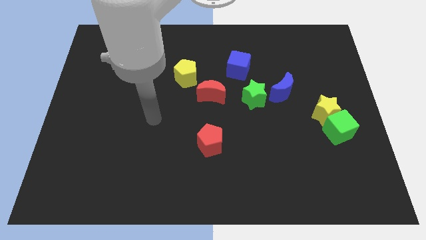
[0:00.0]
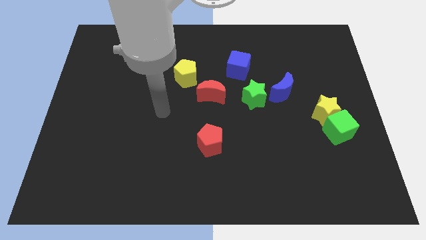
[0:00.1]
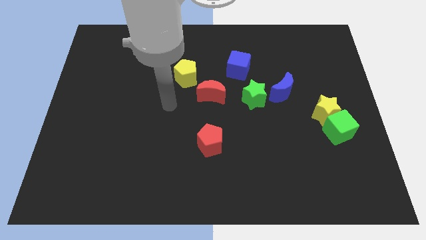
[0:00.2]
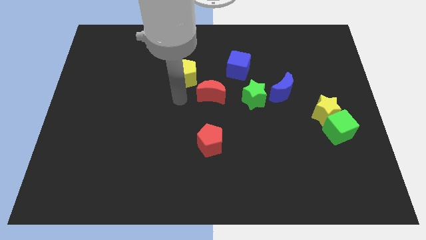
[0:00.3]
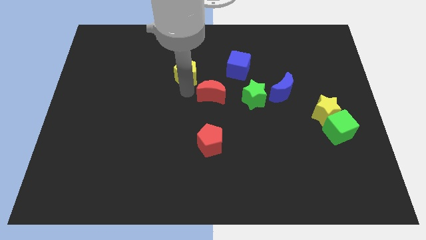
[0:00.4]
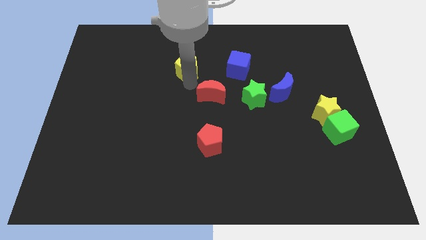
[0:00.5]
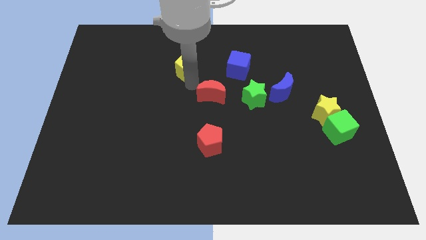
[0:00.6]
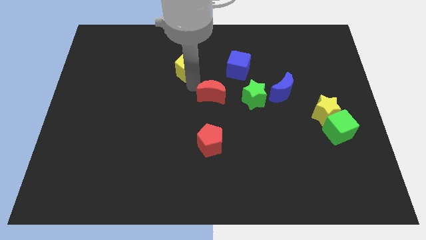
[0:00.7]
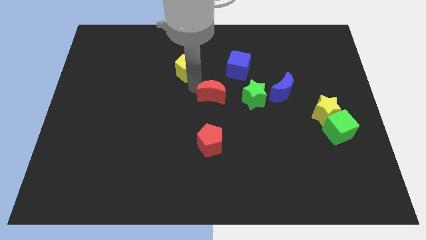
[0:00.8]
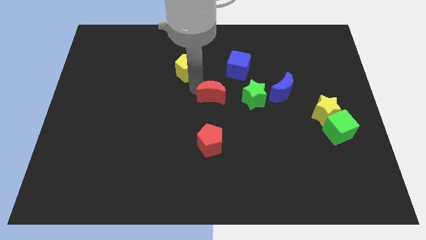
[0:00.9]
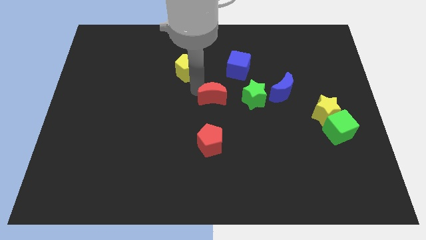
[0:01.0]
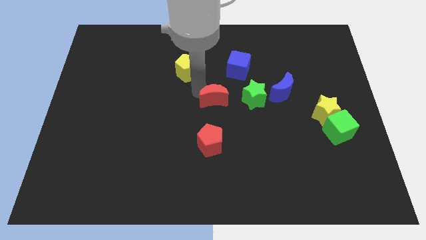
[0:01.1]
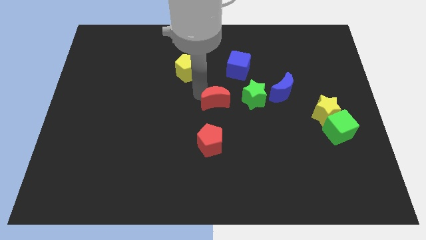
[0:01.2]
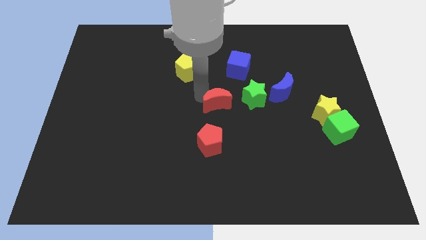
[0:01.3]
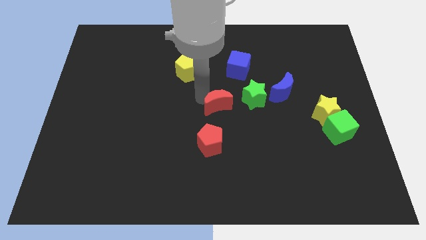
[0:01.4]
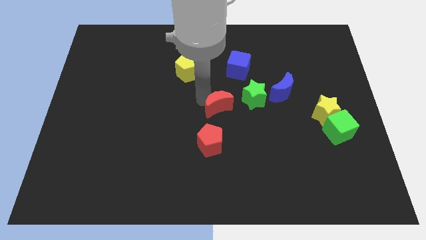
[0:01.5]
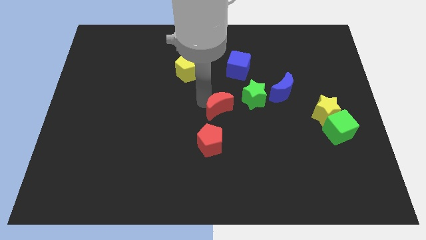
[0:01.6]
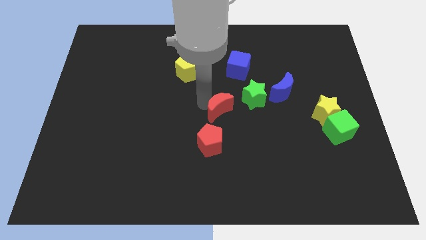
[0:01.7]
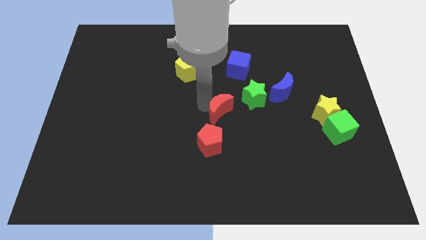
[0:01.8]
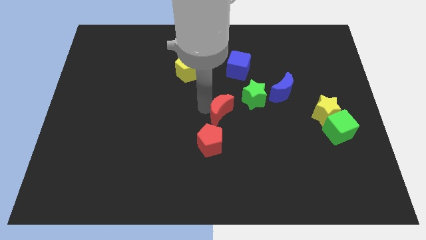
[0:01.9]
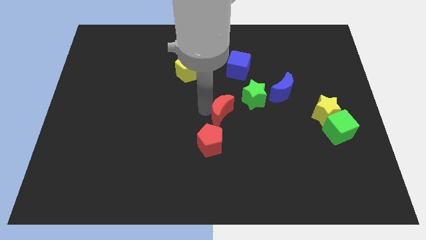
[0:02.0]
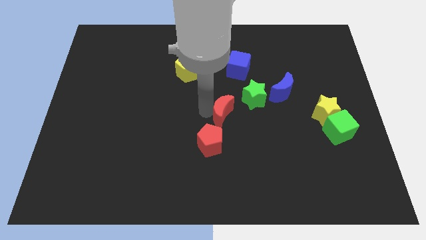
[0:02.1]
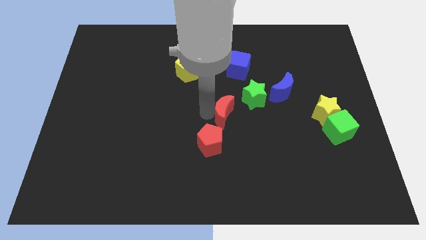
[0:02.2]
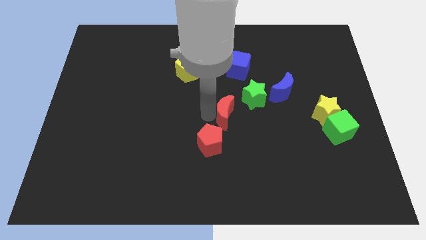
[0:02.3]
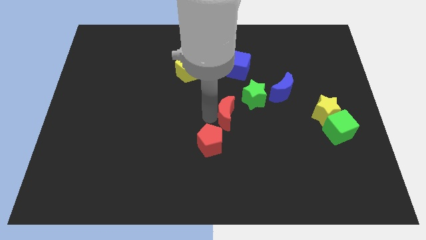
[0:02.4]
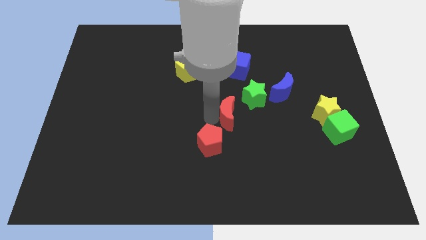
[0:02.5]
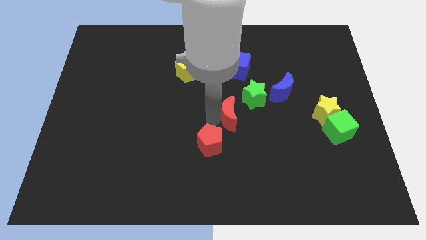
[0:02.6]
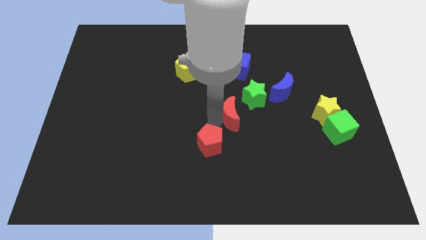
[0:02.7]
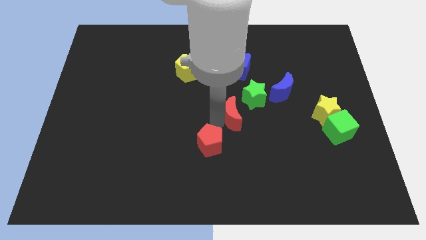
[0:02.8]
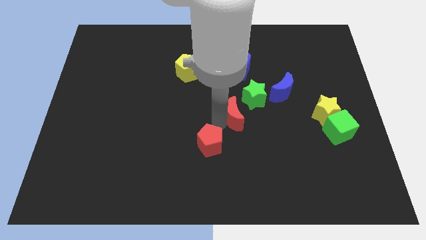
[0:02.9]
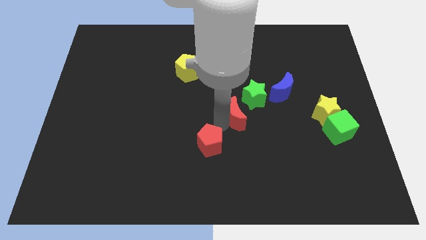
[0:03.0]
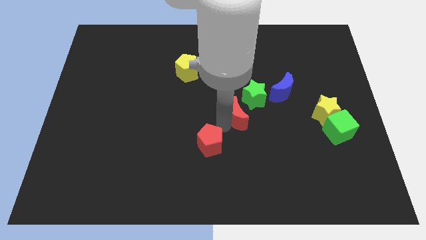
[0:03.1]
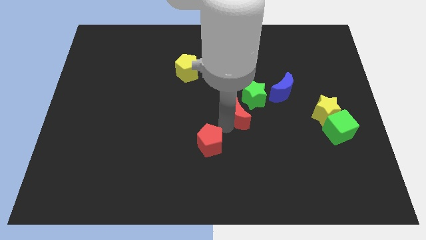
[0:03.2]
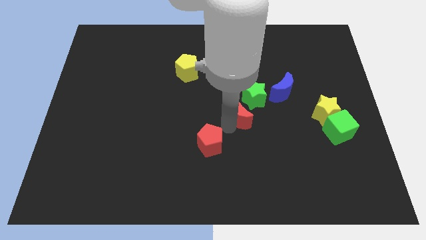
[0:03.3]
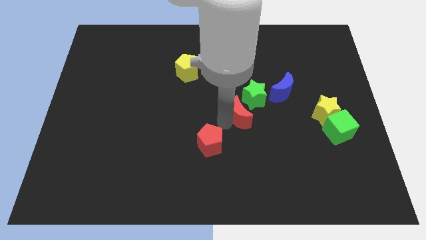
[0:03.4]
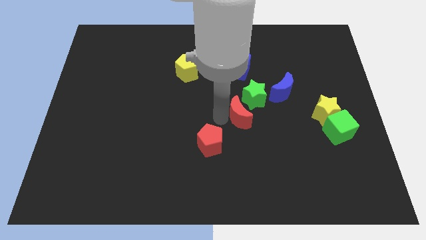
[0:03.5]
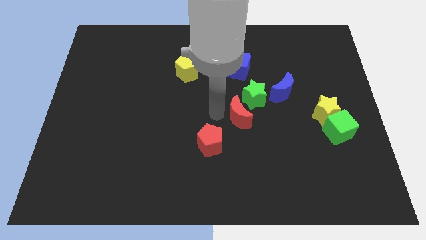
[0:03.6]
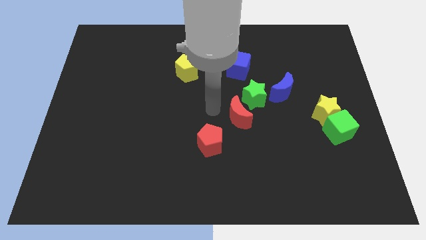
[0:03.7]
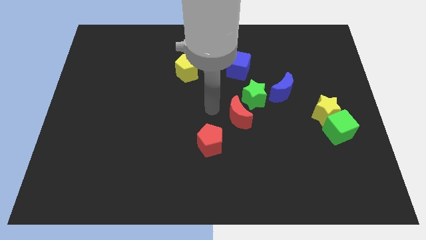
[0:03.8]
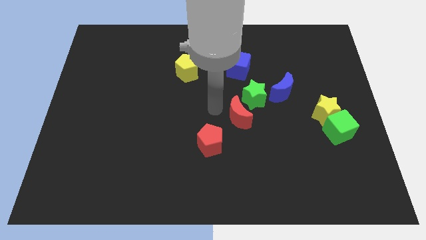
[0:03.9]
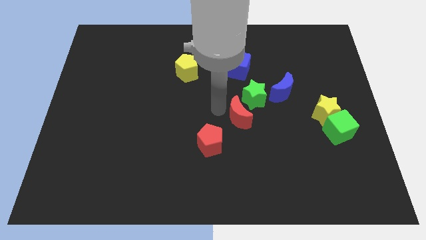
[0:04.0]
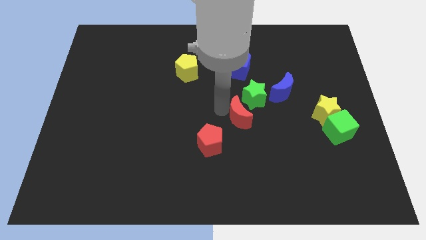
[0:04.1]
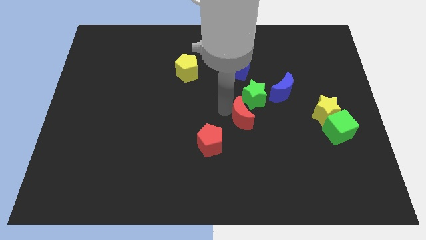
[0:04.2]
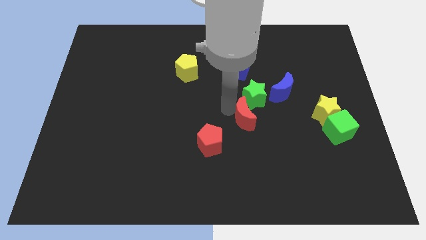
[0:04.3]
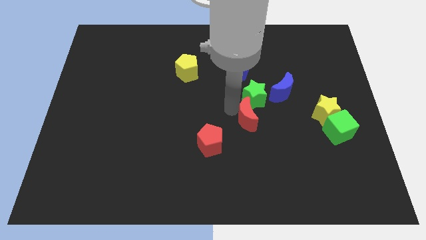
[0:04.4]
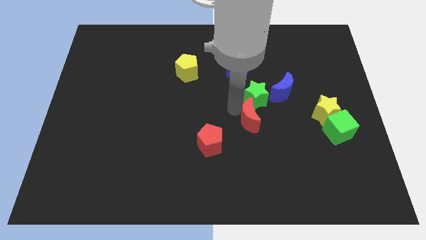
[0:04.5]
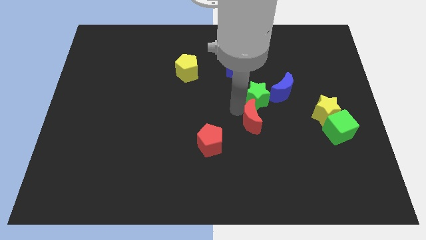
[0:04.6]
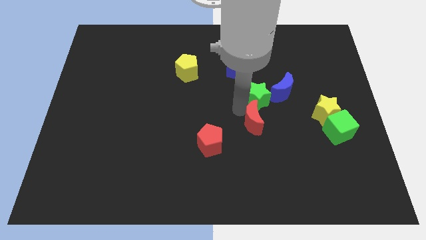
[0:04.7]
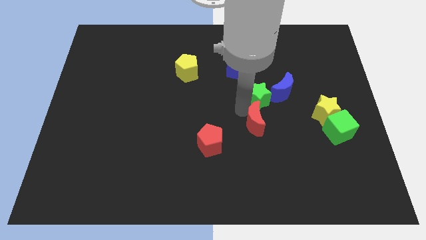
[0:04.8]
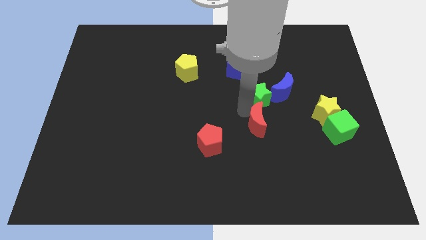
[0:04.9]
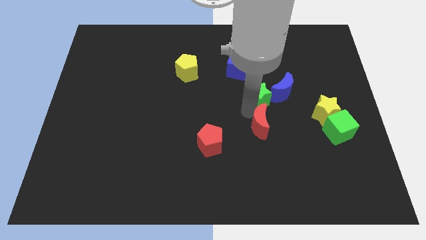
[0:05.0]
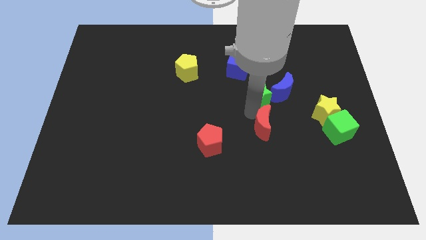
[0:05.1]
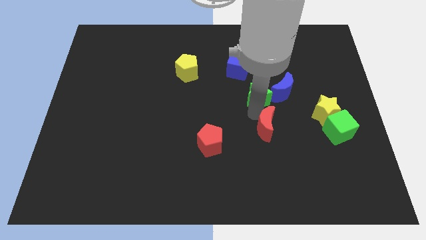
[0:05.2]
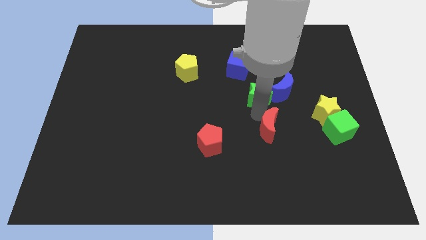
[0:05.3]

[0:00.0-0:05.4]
put the red moon left of the green cube

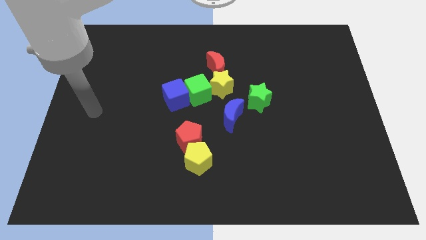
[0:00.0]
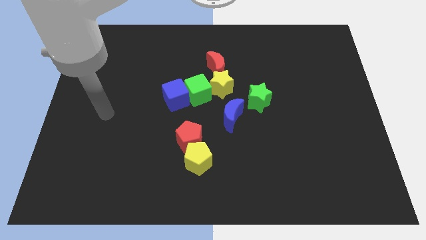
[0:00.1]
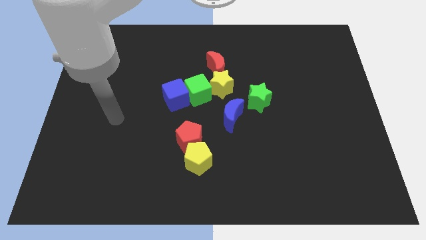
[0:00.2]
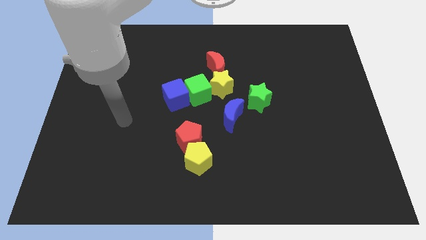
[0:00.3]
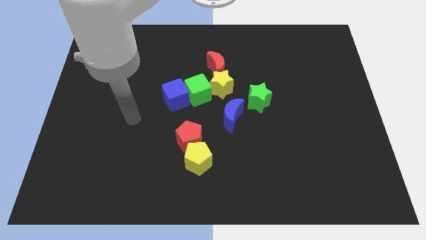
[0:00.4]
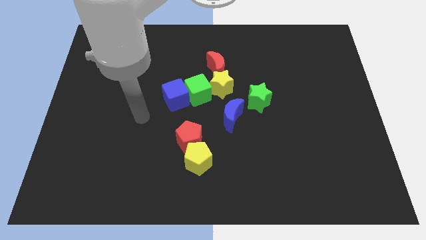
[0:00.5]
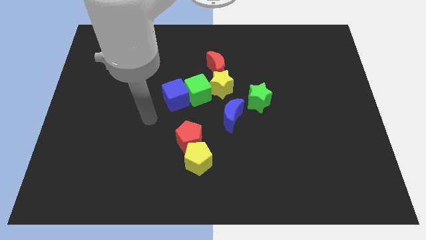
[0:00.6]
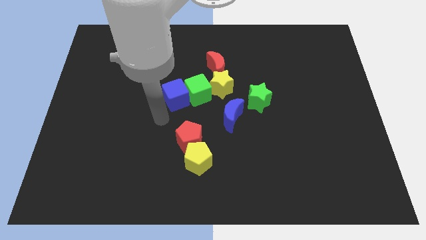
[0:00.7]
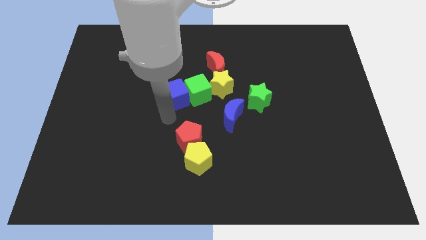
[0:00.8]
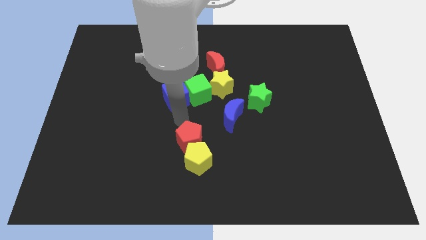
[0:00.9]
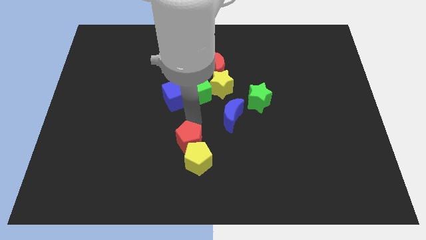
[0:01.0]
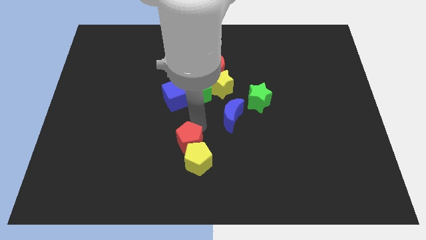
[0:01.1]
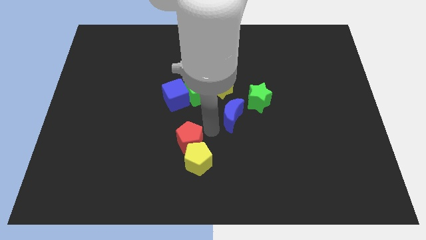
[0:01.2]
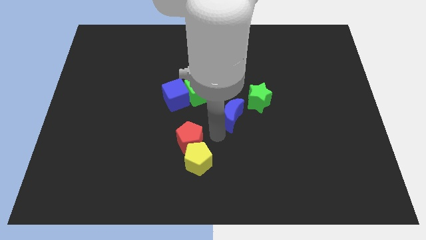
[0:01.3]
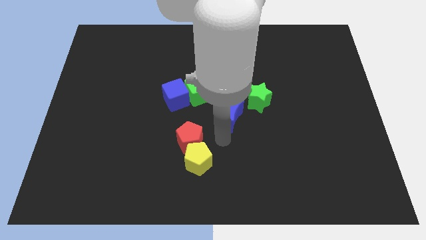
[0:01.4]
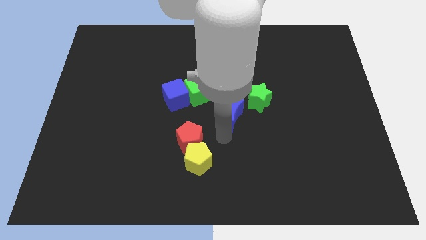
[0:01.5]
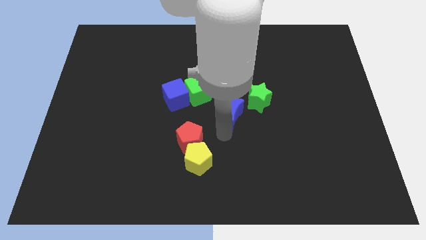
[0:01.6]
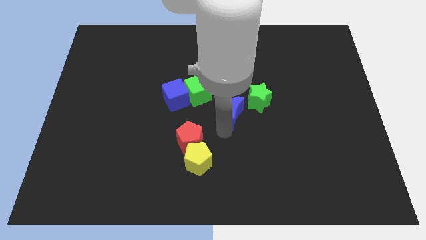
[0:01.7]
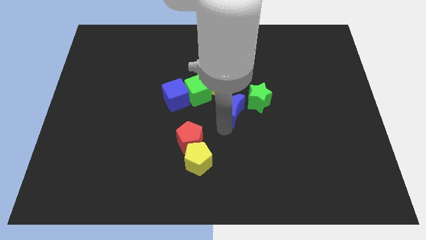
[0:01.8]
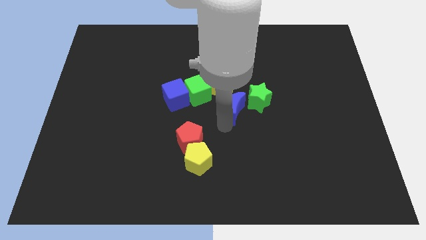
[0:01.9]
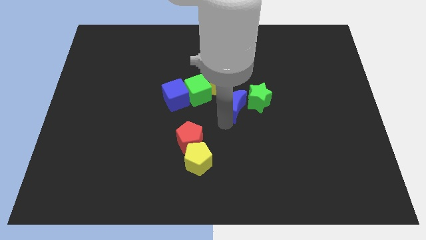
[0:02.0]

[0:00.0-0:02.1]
put the blue moon right of the green cube

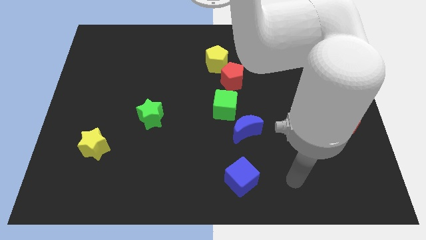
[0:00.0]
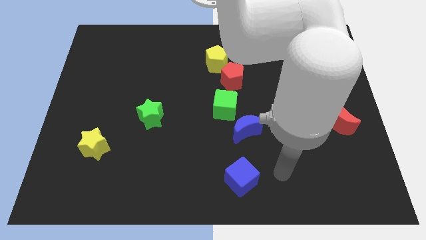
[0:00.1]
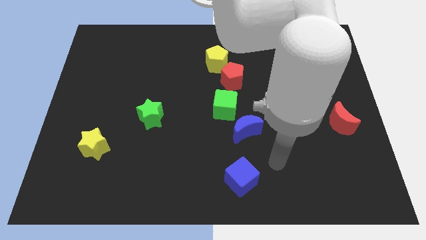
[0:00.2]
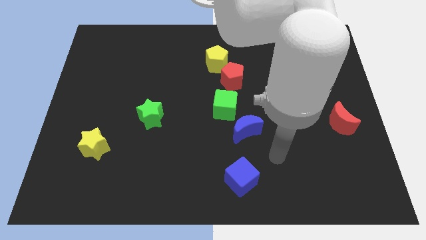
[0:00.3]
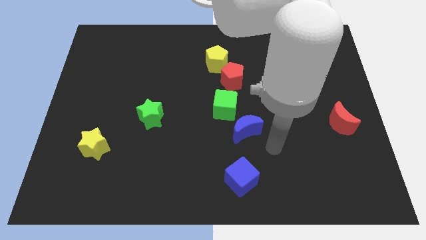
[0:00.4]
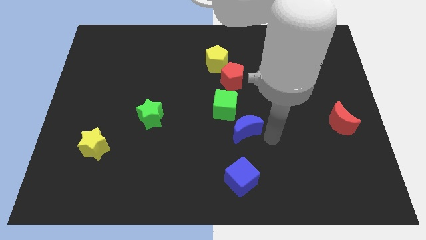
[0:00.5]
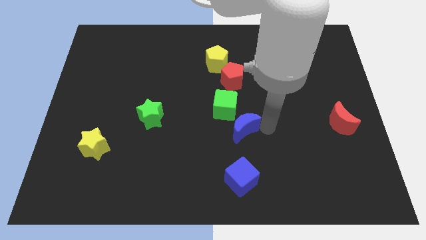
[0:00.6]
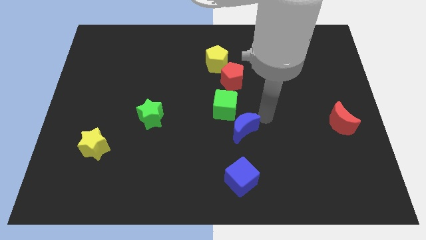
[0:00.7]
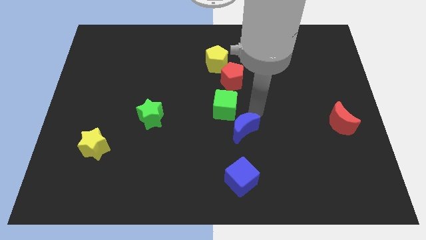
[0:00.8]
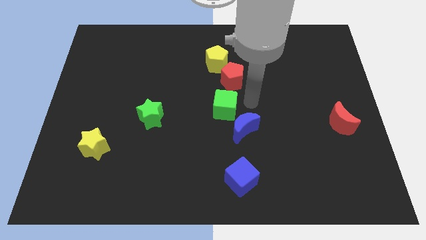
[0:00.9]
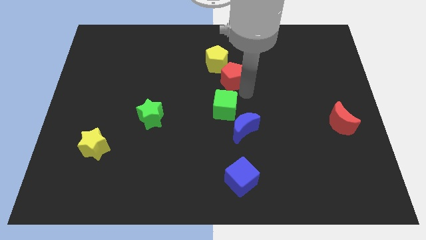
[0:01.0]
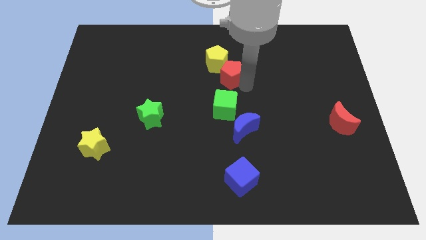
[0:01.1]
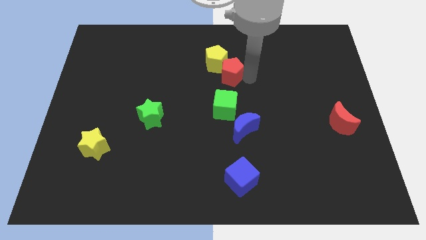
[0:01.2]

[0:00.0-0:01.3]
move the yellow pentagon to the left side of the red pentagon
